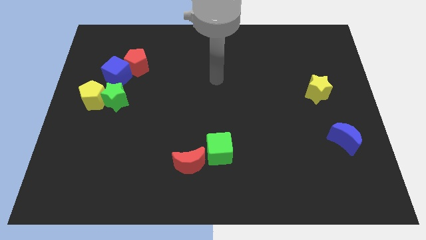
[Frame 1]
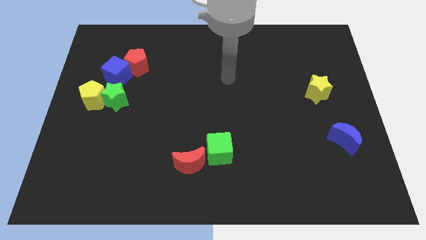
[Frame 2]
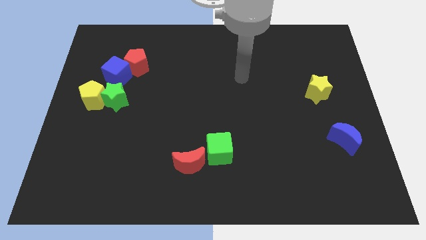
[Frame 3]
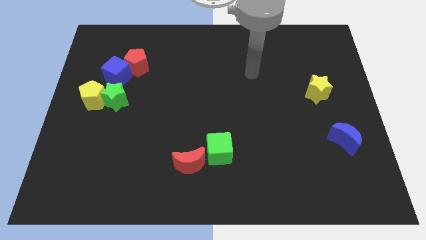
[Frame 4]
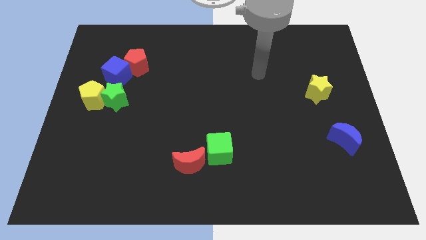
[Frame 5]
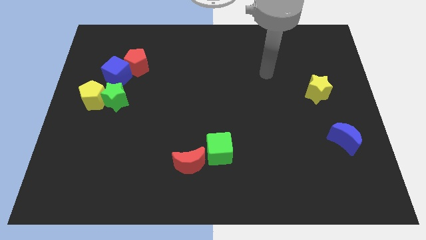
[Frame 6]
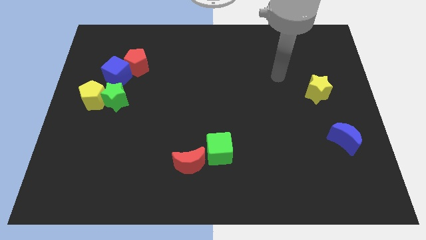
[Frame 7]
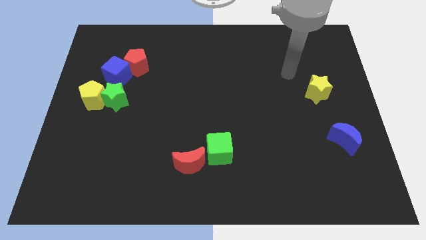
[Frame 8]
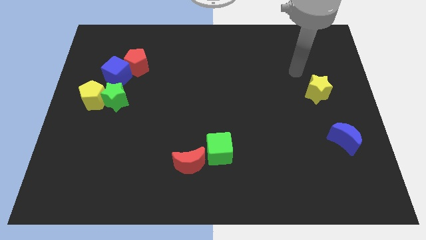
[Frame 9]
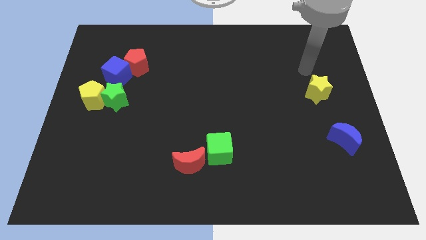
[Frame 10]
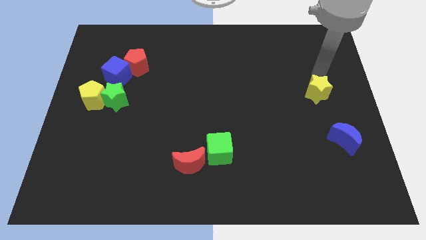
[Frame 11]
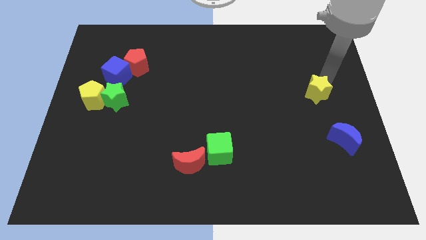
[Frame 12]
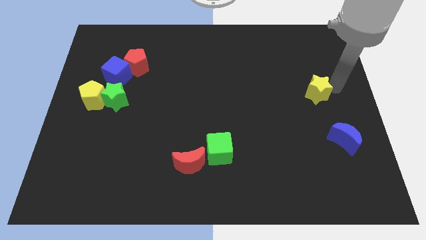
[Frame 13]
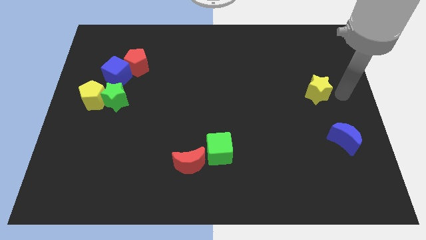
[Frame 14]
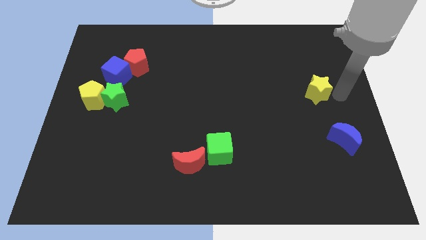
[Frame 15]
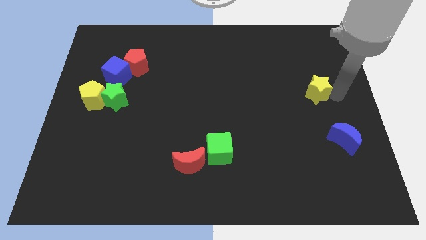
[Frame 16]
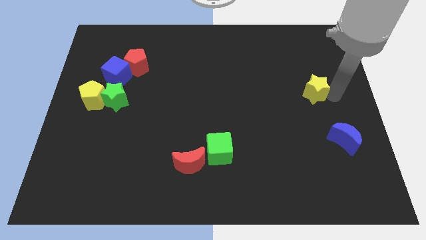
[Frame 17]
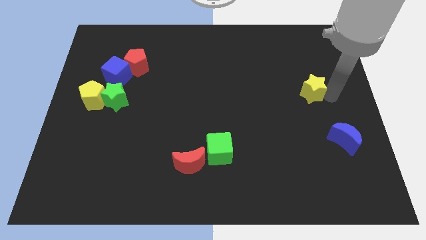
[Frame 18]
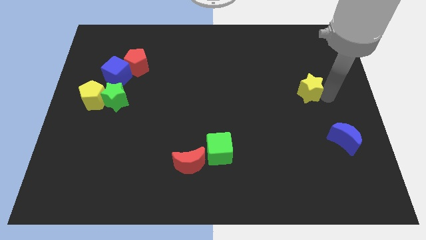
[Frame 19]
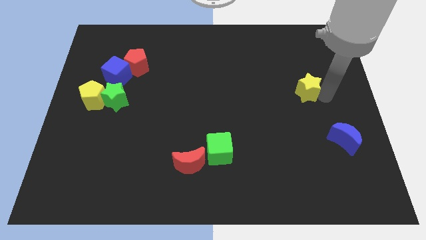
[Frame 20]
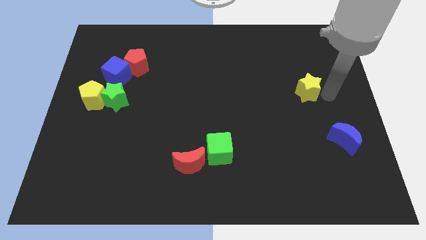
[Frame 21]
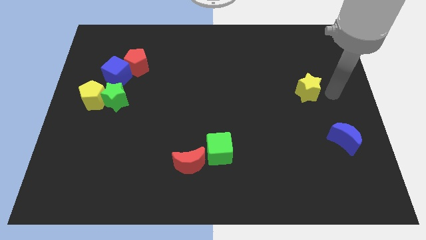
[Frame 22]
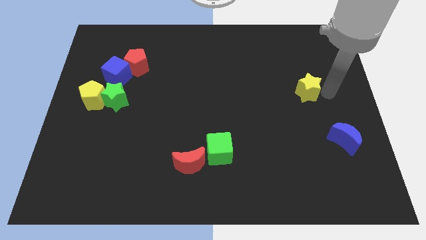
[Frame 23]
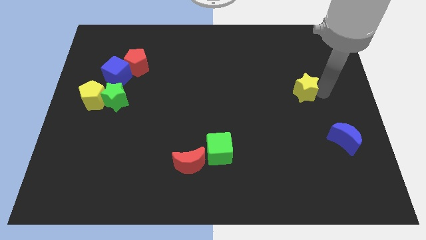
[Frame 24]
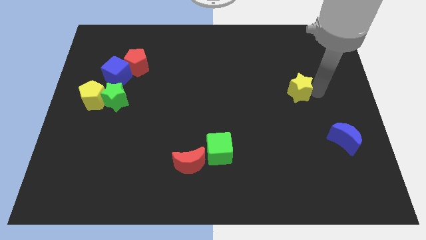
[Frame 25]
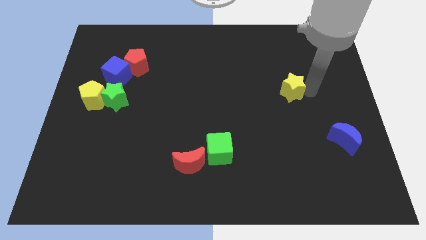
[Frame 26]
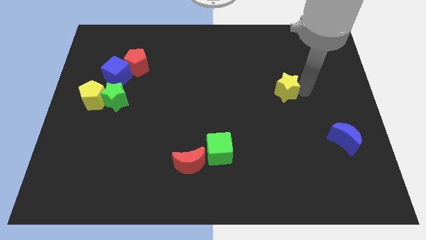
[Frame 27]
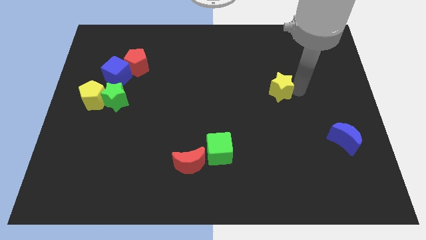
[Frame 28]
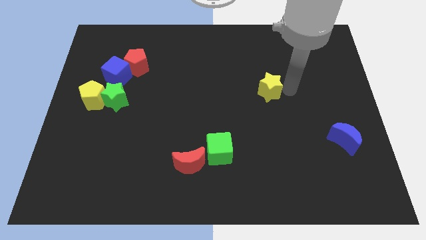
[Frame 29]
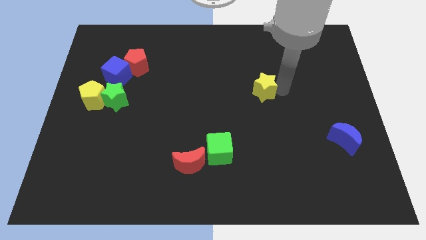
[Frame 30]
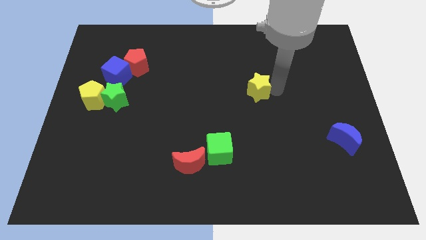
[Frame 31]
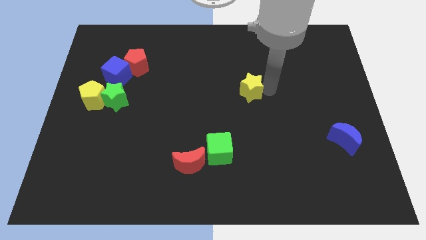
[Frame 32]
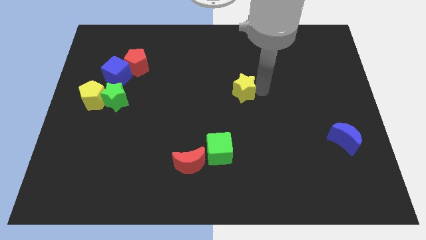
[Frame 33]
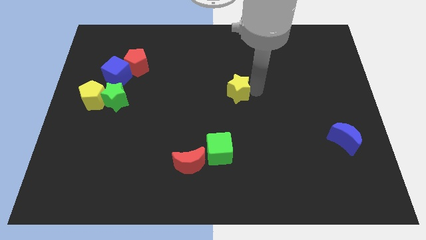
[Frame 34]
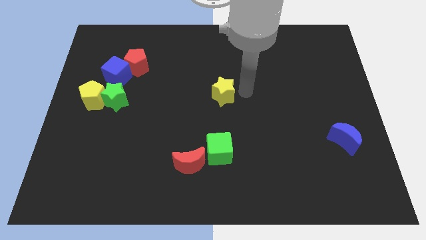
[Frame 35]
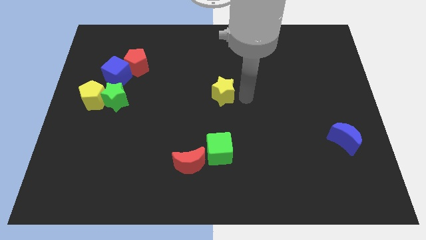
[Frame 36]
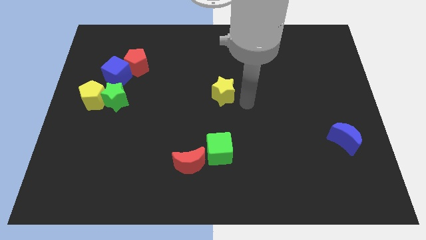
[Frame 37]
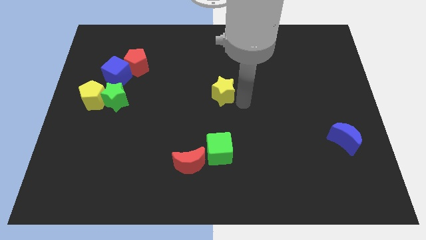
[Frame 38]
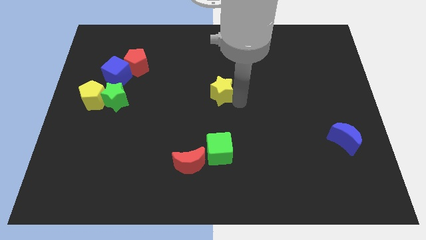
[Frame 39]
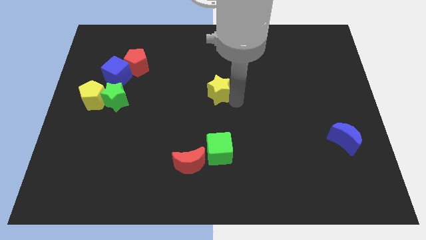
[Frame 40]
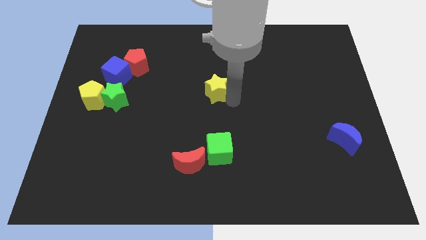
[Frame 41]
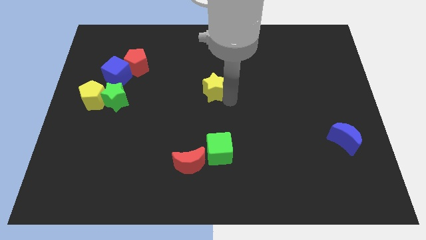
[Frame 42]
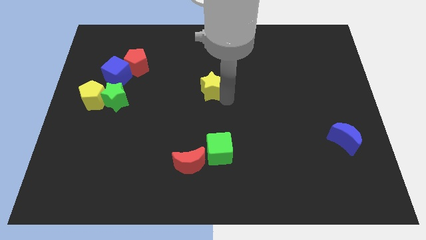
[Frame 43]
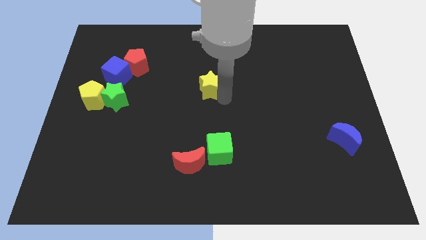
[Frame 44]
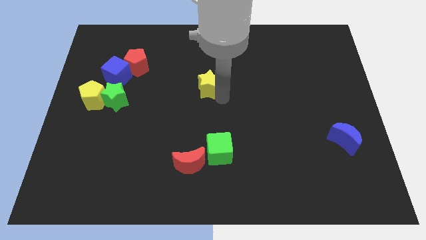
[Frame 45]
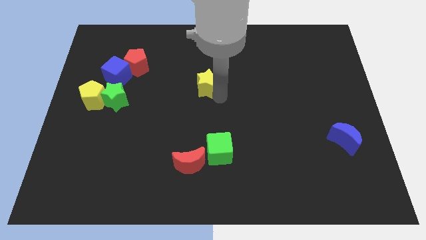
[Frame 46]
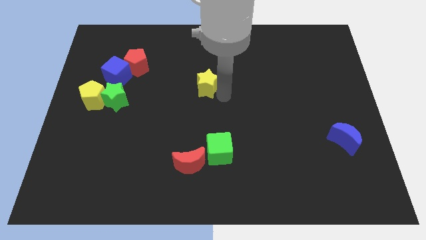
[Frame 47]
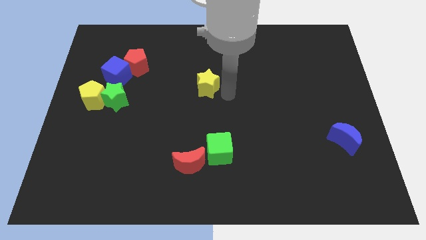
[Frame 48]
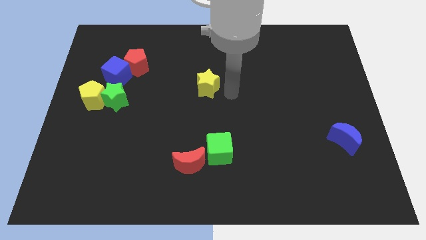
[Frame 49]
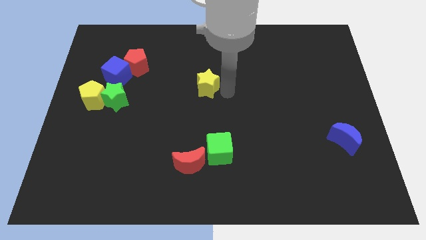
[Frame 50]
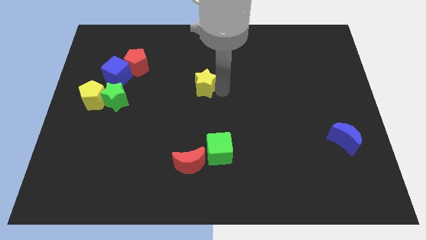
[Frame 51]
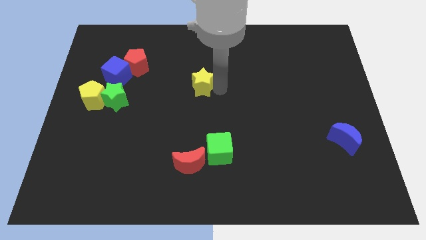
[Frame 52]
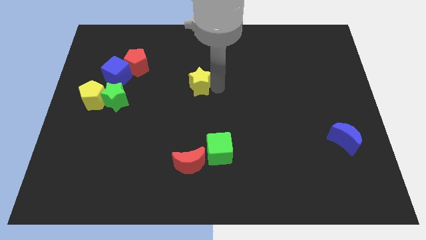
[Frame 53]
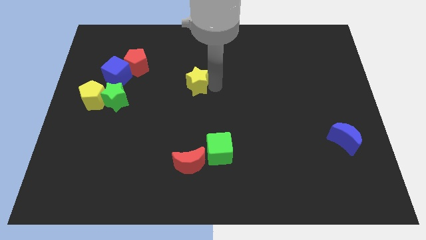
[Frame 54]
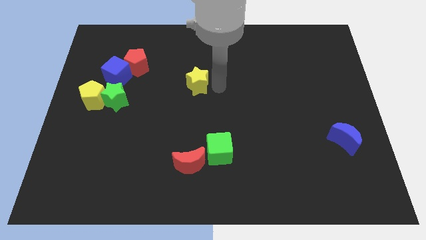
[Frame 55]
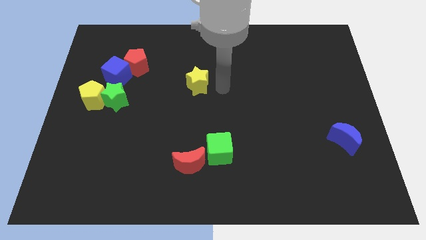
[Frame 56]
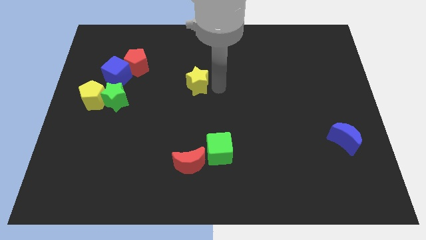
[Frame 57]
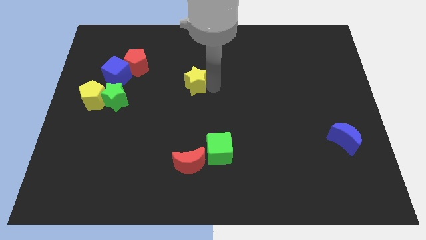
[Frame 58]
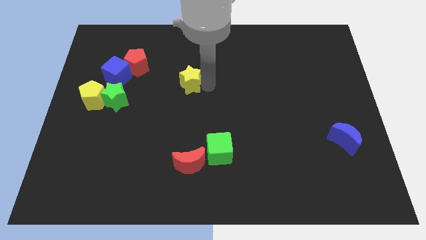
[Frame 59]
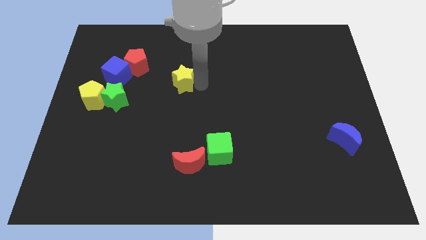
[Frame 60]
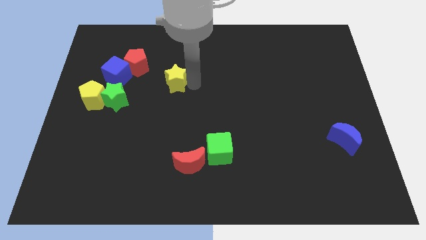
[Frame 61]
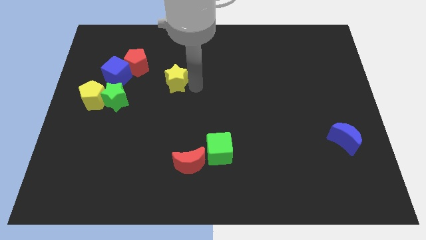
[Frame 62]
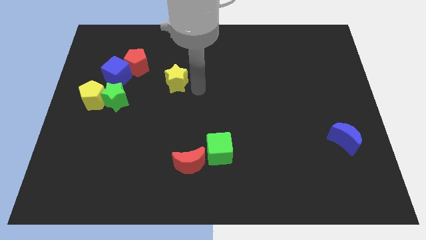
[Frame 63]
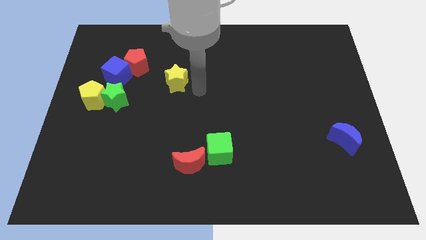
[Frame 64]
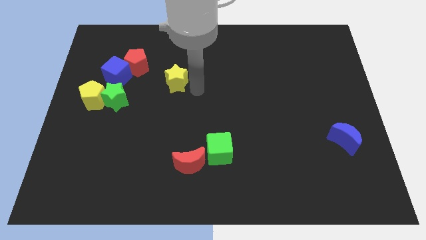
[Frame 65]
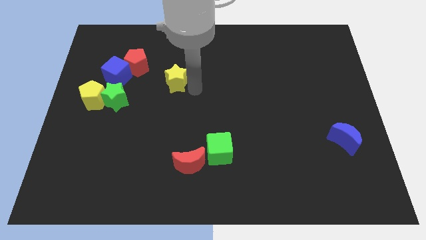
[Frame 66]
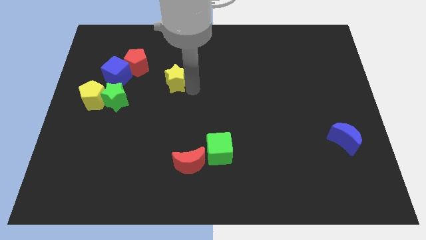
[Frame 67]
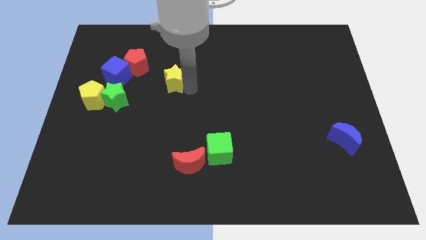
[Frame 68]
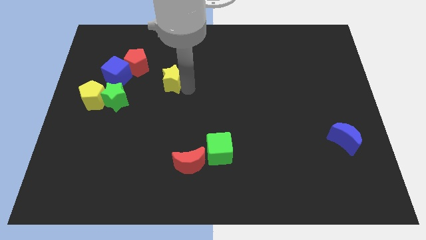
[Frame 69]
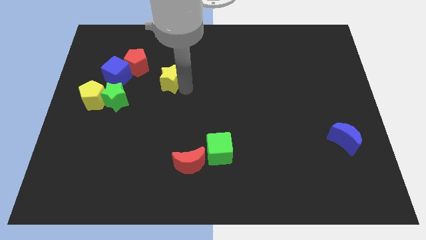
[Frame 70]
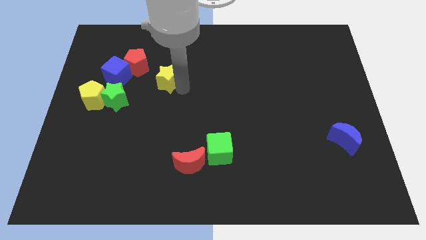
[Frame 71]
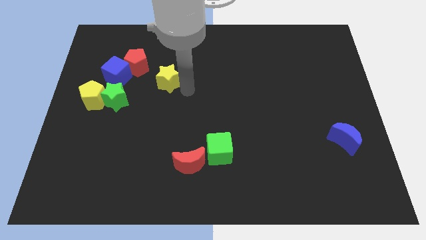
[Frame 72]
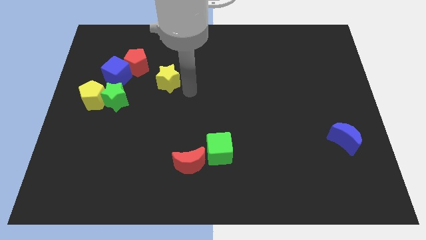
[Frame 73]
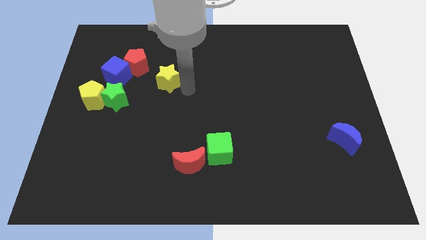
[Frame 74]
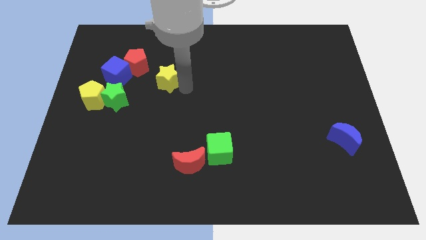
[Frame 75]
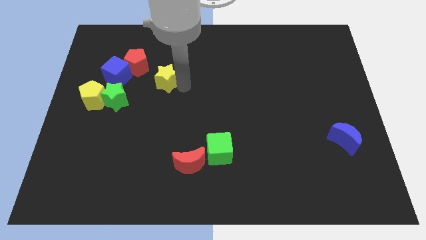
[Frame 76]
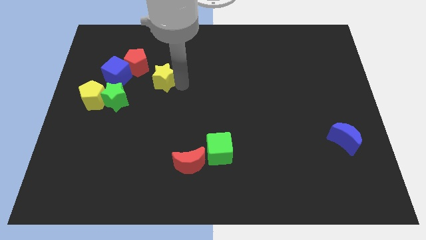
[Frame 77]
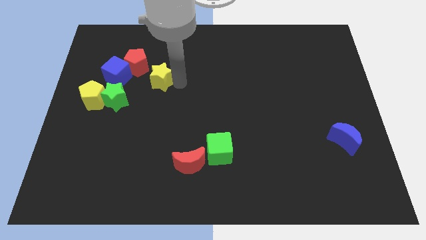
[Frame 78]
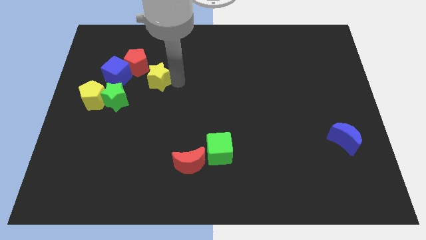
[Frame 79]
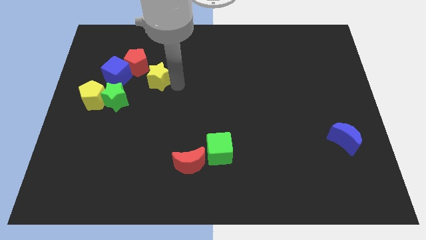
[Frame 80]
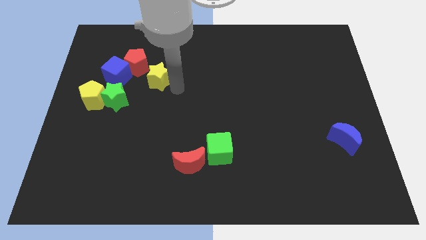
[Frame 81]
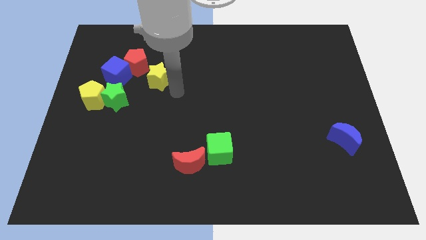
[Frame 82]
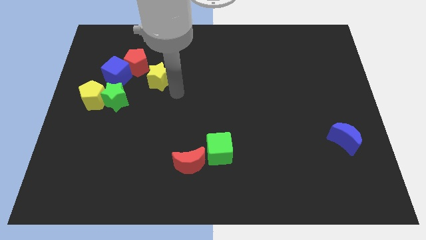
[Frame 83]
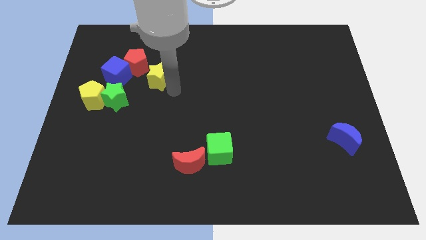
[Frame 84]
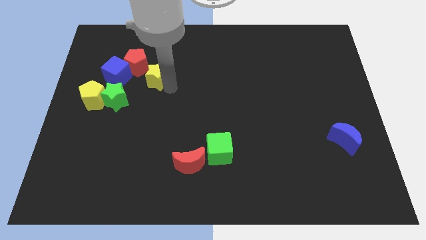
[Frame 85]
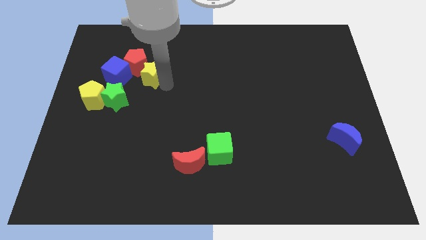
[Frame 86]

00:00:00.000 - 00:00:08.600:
put the yellow star towards the red pentagon
